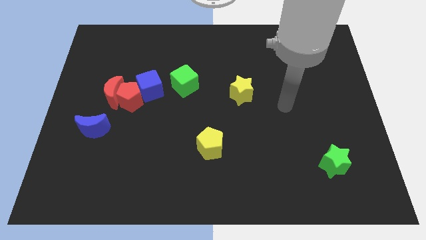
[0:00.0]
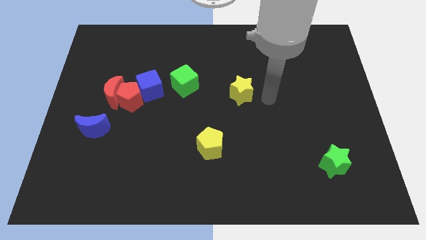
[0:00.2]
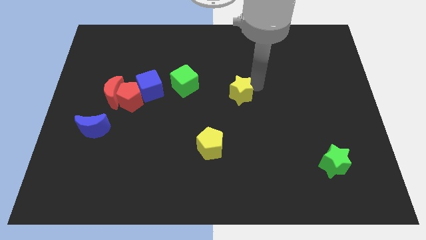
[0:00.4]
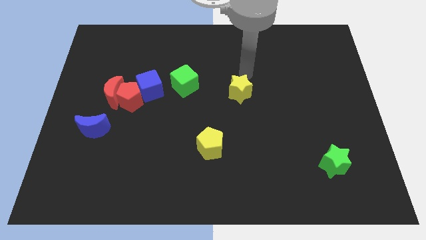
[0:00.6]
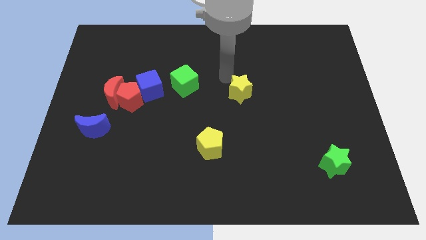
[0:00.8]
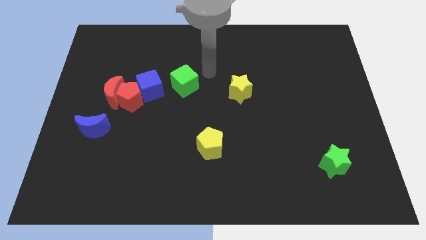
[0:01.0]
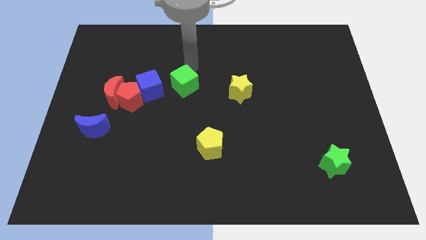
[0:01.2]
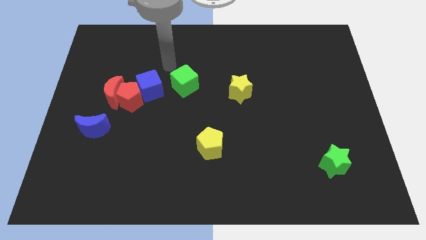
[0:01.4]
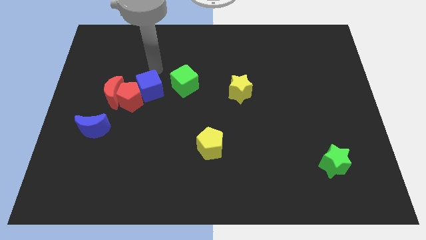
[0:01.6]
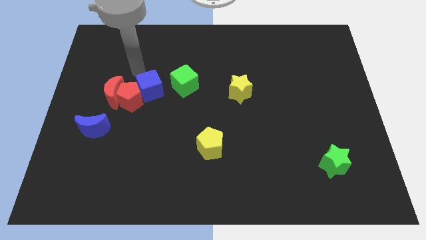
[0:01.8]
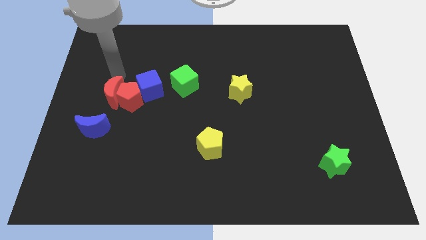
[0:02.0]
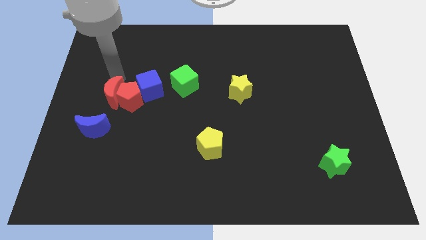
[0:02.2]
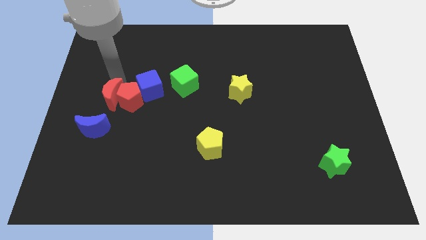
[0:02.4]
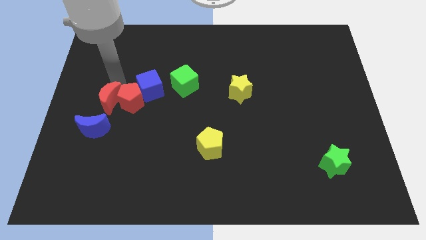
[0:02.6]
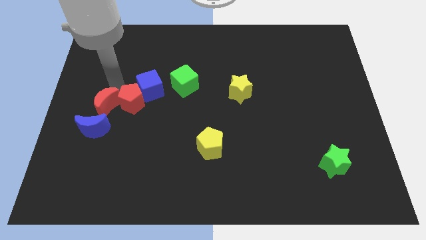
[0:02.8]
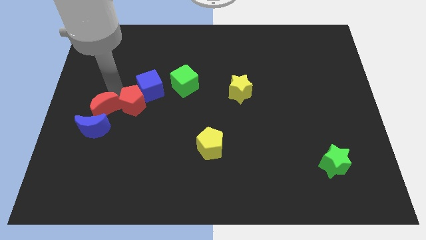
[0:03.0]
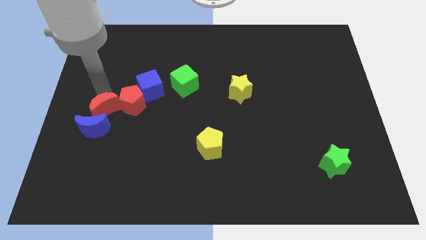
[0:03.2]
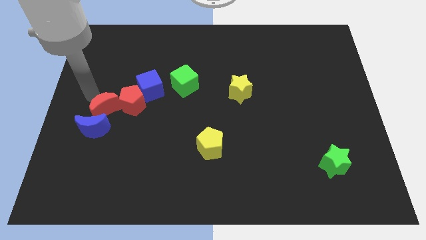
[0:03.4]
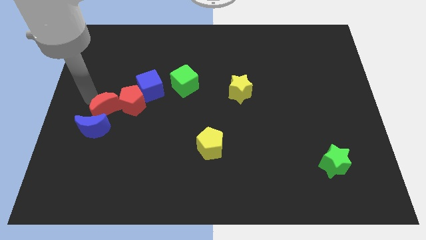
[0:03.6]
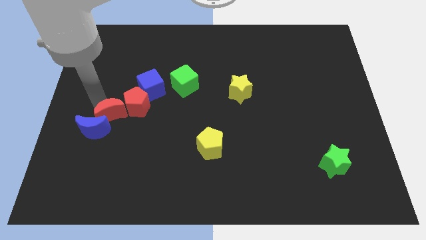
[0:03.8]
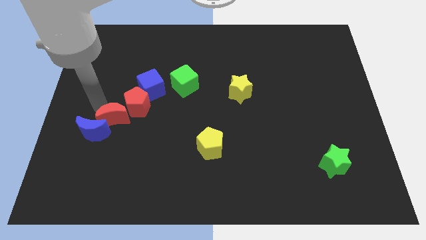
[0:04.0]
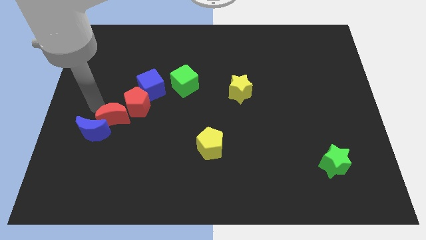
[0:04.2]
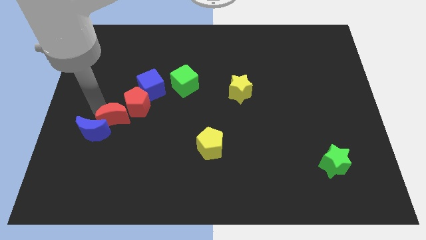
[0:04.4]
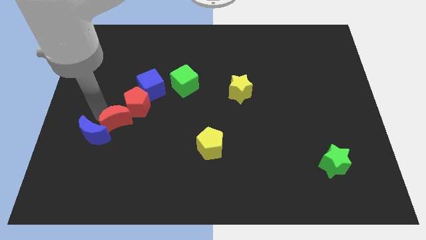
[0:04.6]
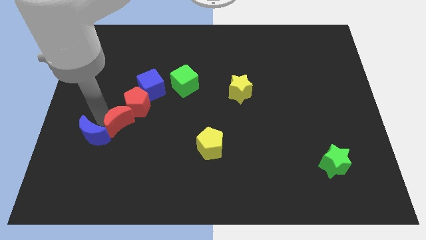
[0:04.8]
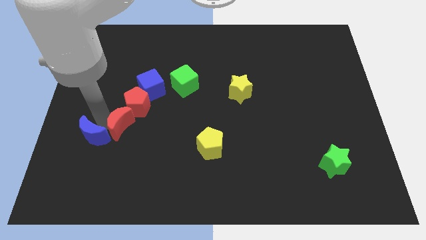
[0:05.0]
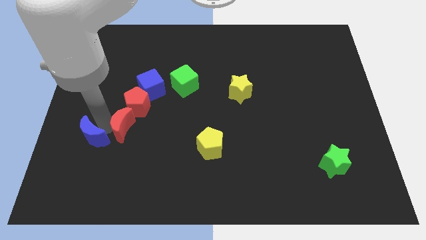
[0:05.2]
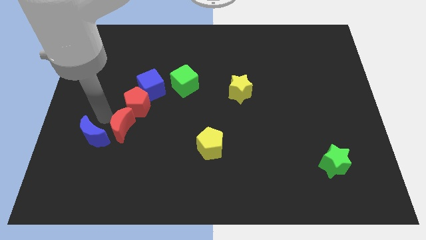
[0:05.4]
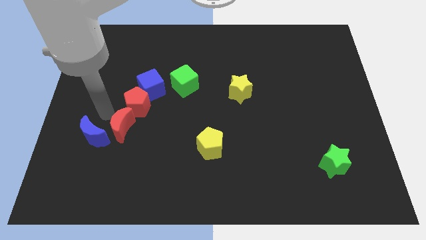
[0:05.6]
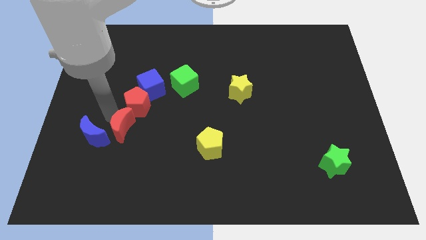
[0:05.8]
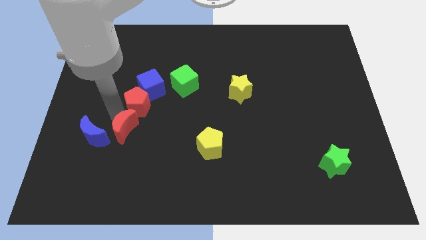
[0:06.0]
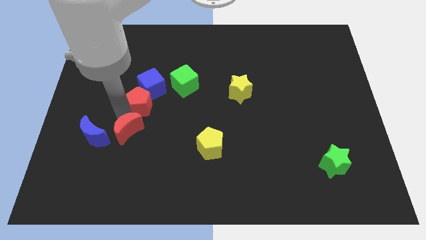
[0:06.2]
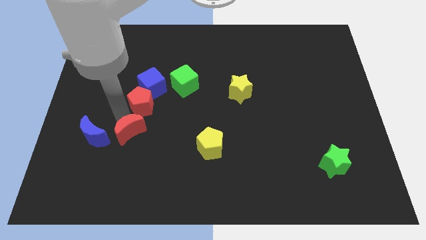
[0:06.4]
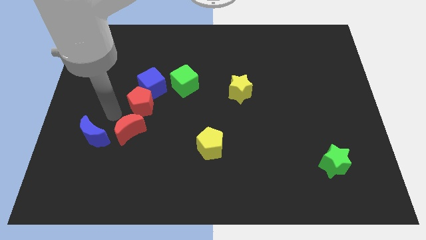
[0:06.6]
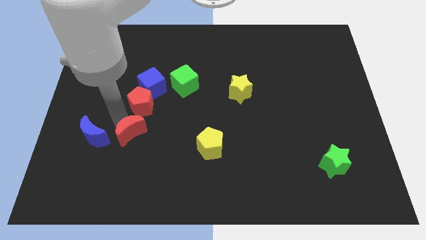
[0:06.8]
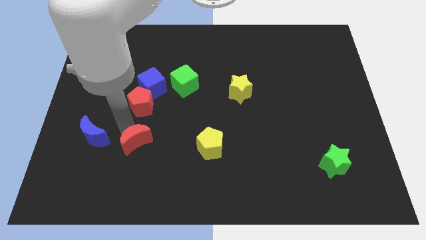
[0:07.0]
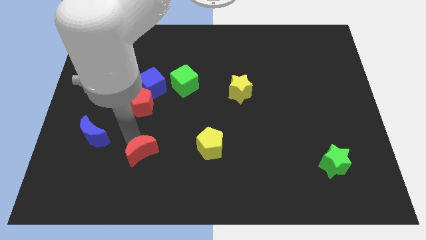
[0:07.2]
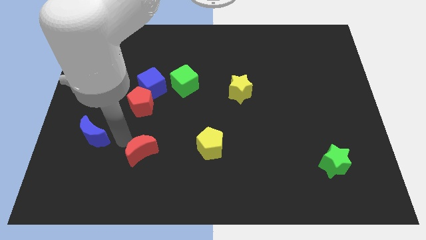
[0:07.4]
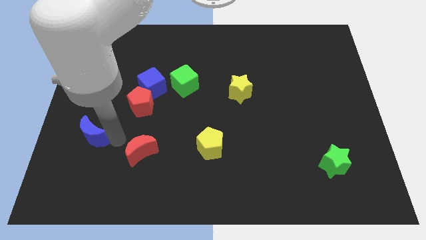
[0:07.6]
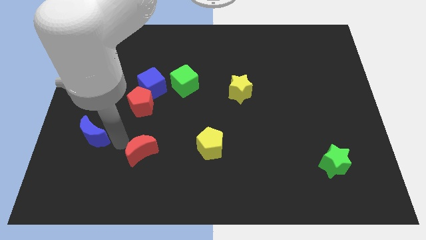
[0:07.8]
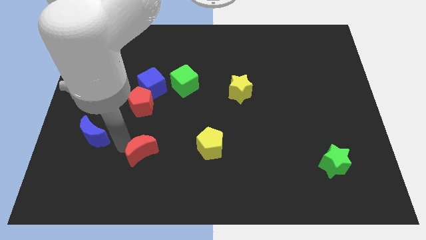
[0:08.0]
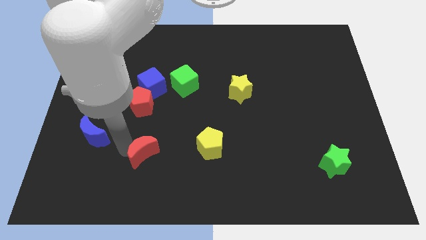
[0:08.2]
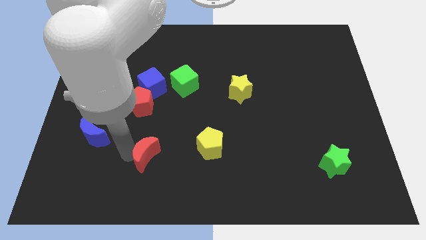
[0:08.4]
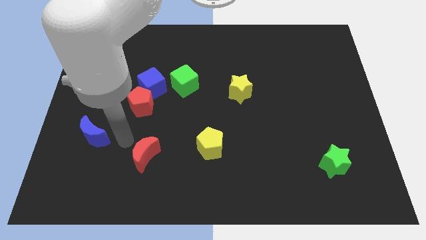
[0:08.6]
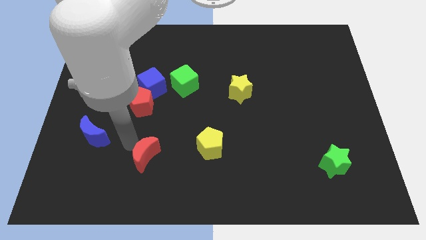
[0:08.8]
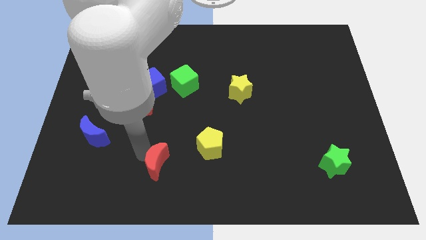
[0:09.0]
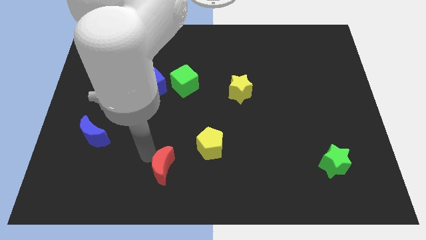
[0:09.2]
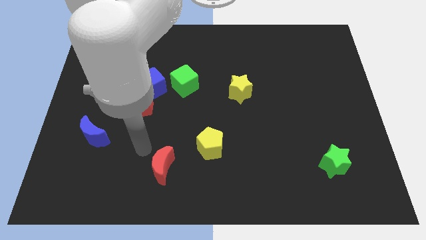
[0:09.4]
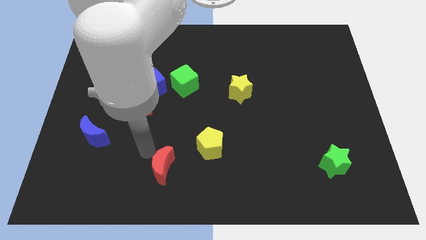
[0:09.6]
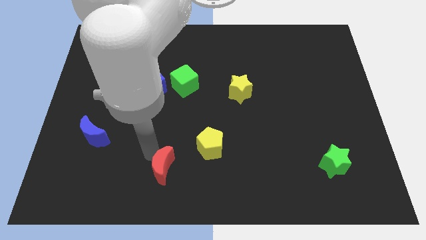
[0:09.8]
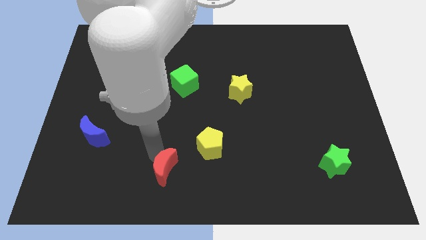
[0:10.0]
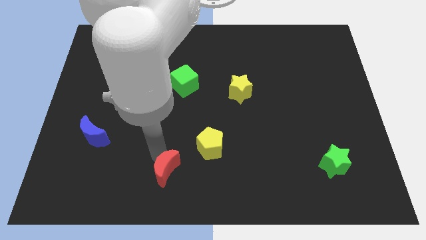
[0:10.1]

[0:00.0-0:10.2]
push the red moon to the bottom

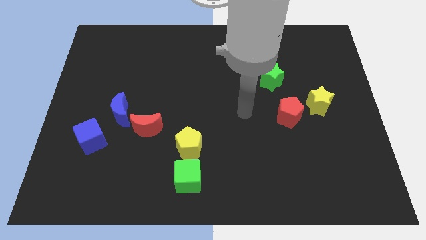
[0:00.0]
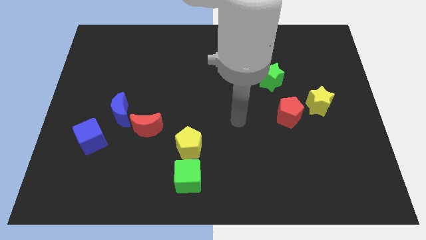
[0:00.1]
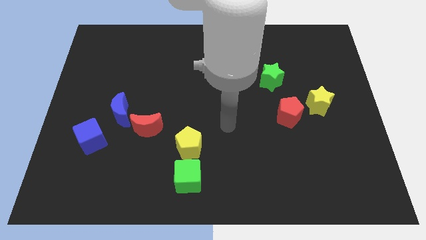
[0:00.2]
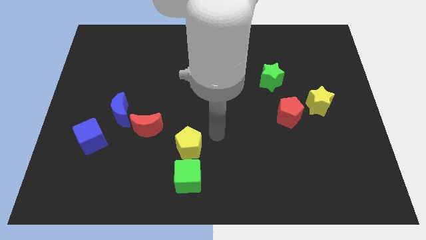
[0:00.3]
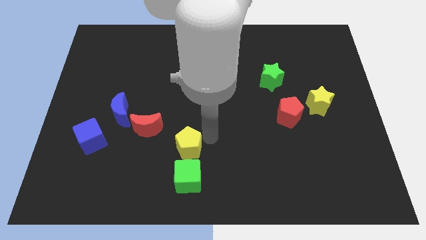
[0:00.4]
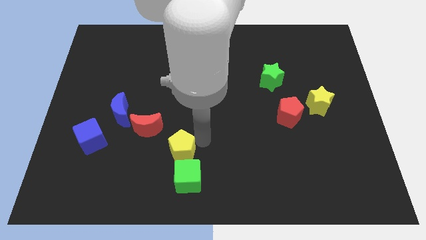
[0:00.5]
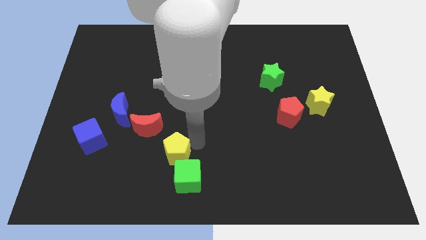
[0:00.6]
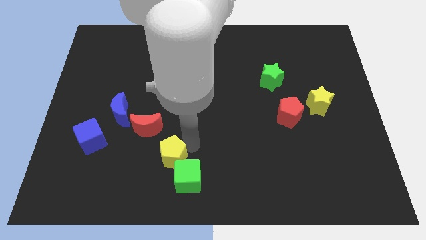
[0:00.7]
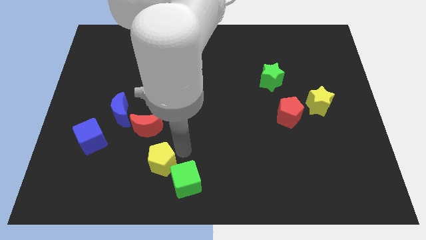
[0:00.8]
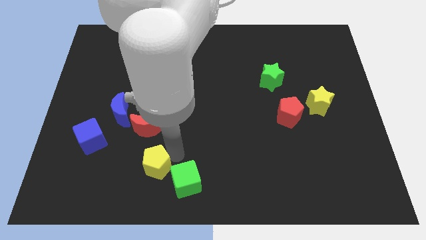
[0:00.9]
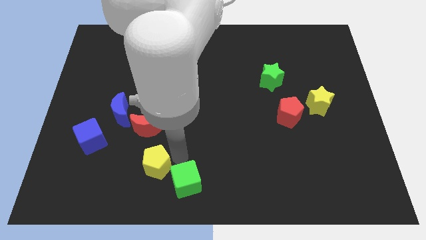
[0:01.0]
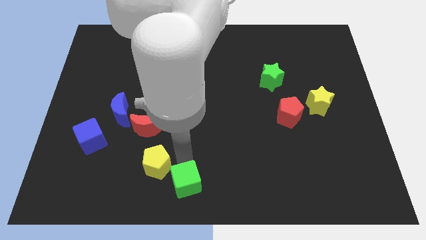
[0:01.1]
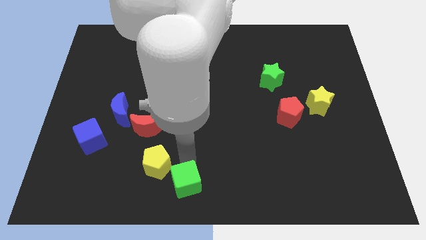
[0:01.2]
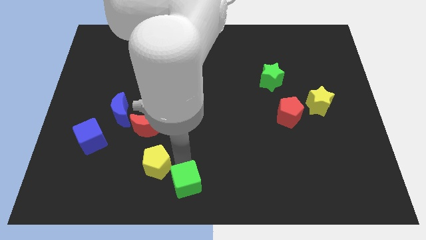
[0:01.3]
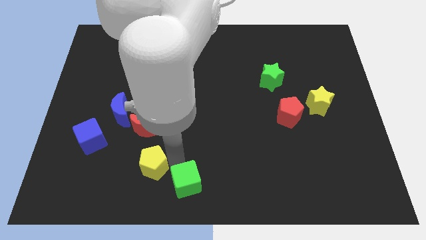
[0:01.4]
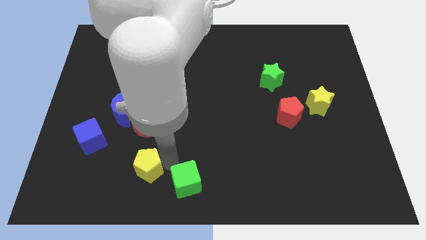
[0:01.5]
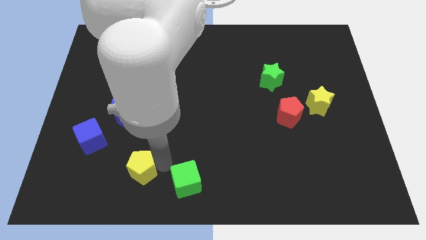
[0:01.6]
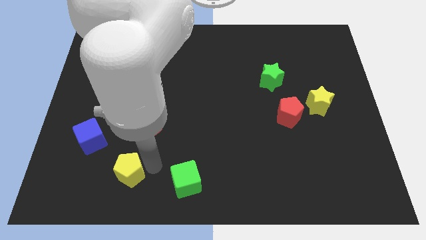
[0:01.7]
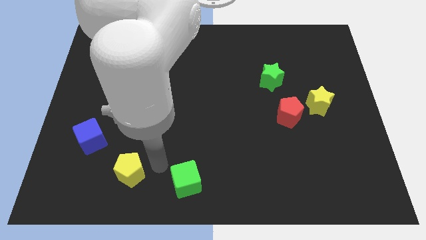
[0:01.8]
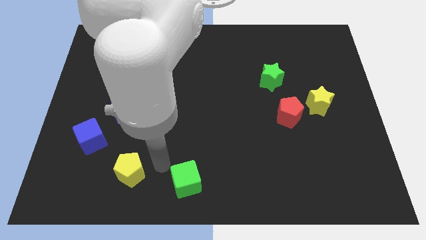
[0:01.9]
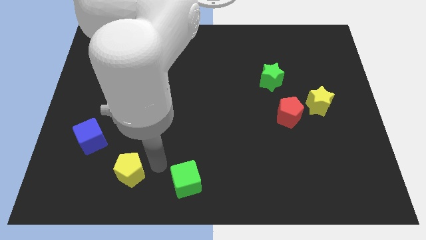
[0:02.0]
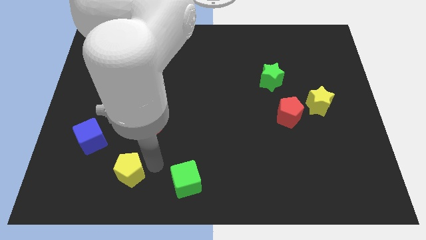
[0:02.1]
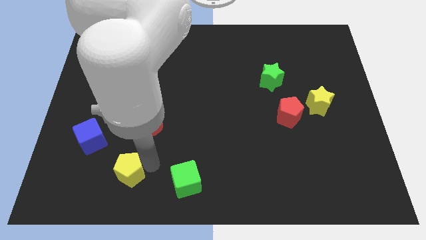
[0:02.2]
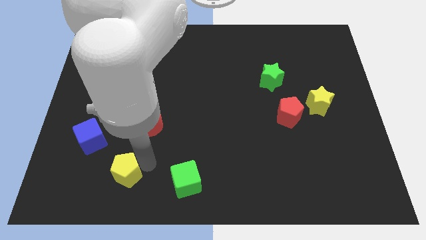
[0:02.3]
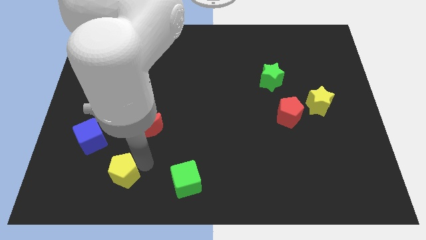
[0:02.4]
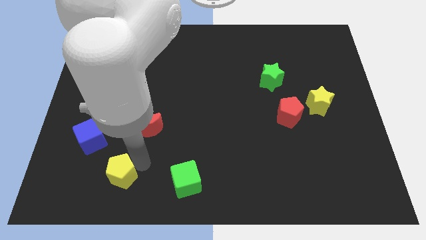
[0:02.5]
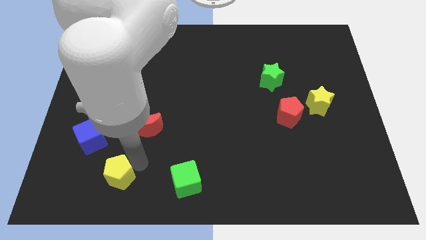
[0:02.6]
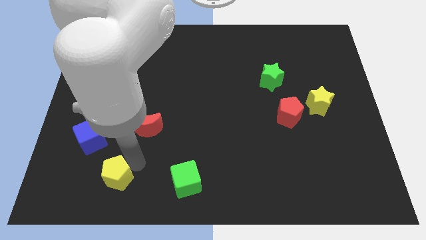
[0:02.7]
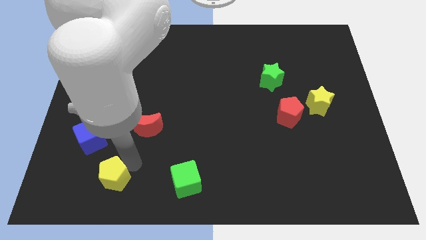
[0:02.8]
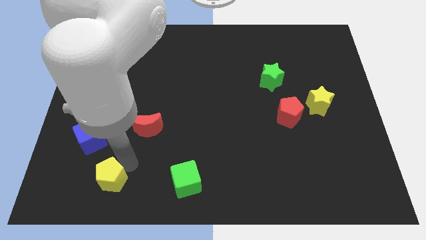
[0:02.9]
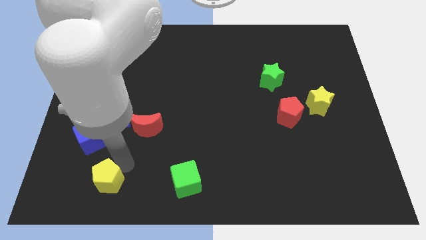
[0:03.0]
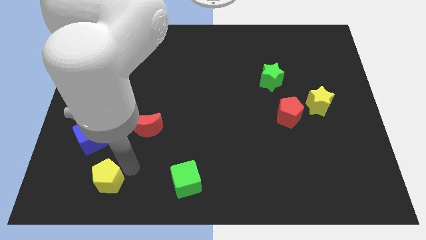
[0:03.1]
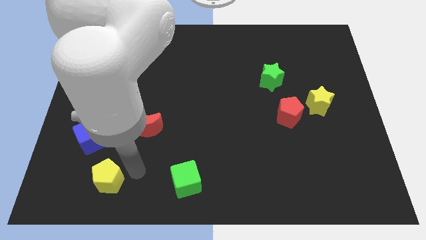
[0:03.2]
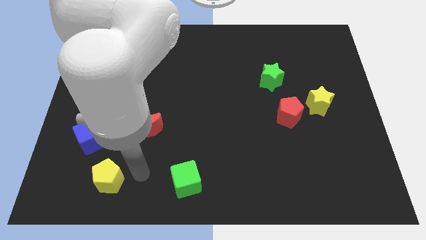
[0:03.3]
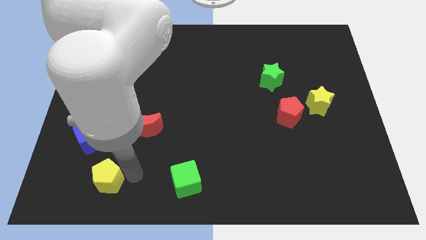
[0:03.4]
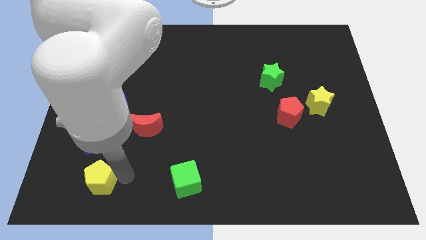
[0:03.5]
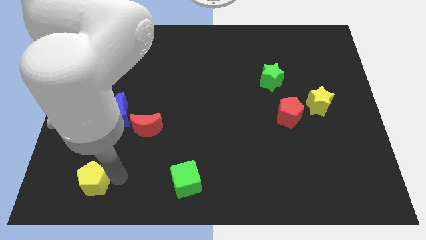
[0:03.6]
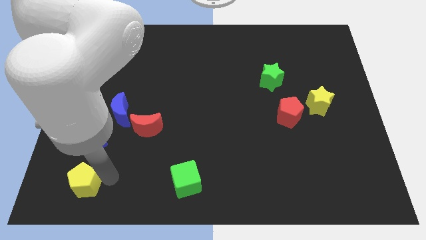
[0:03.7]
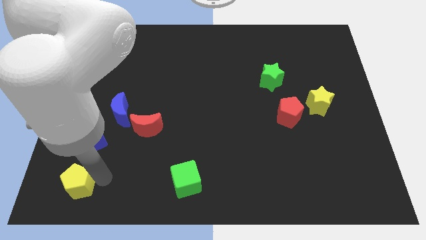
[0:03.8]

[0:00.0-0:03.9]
put the yellow pentagon to the bottom left corner
